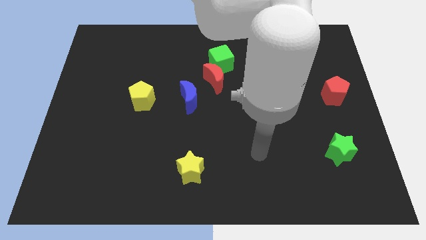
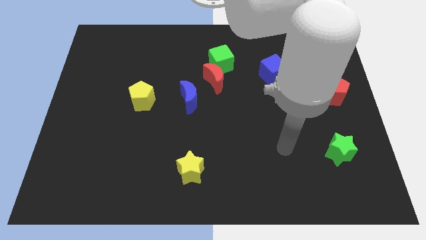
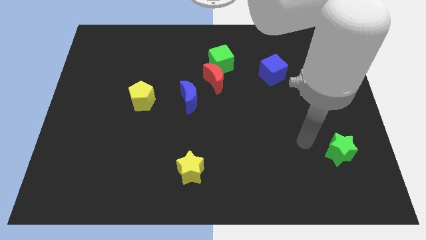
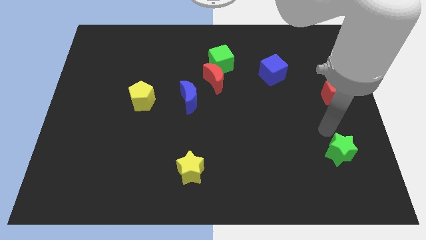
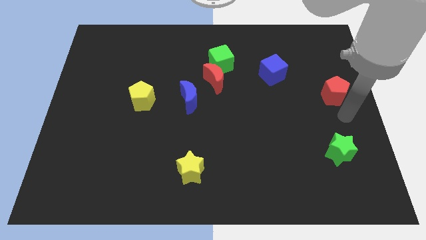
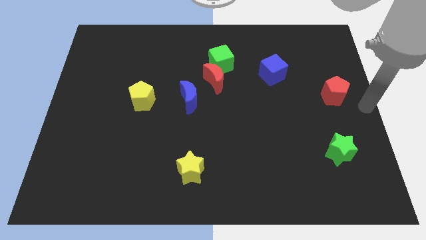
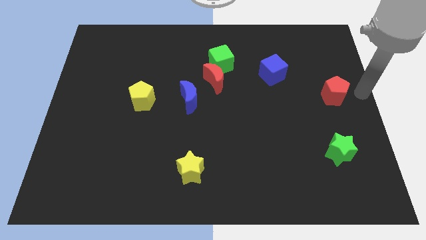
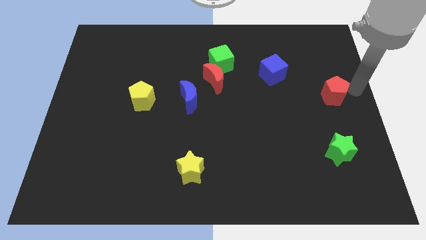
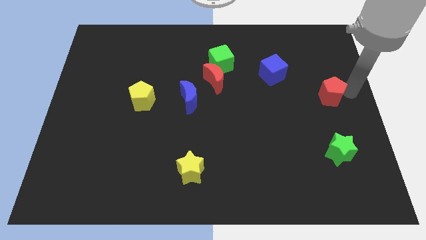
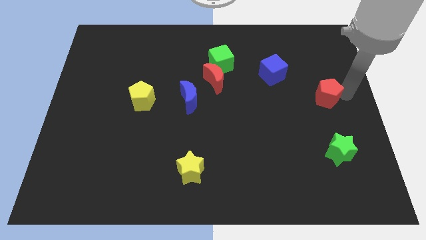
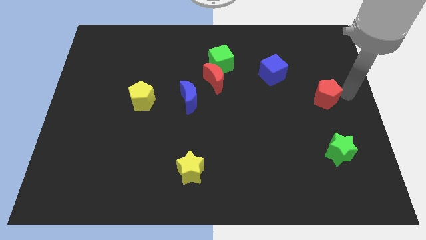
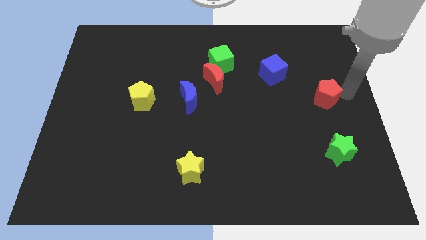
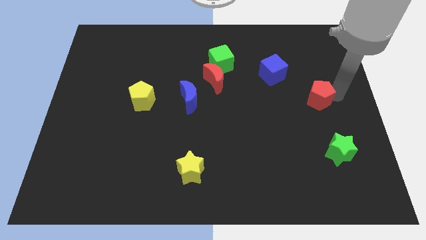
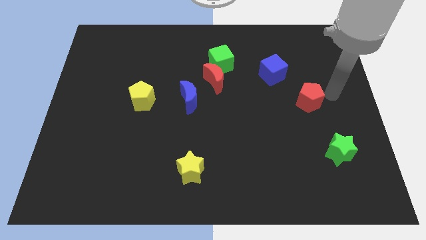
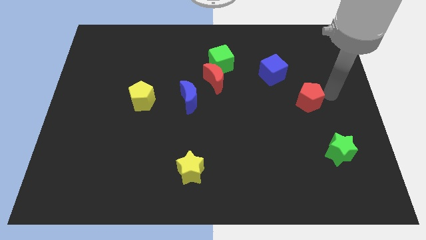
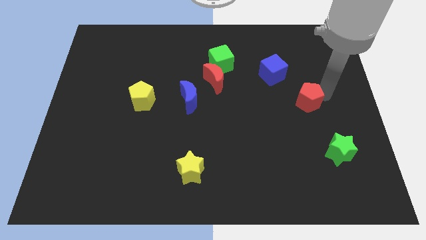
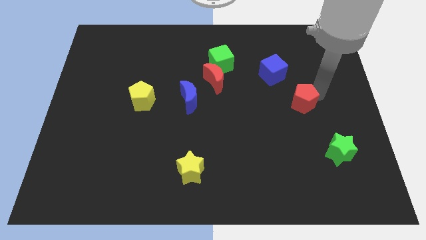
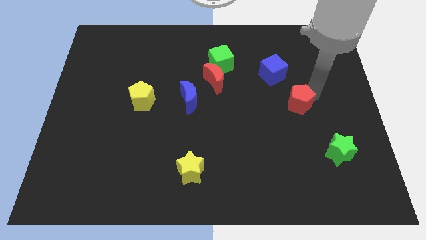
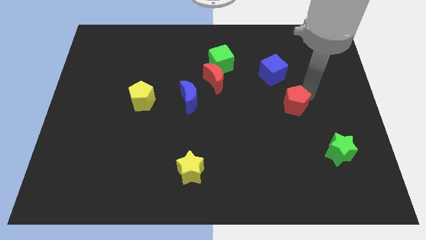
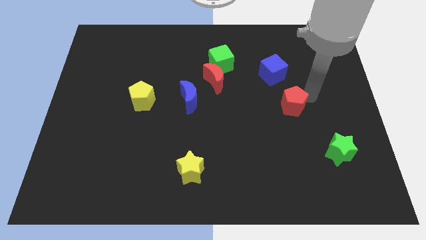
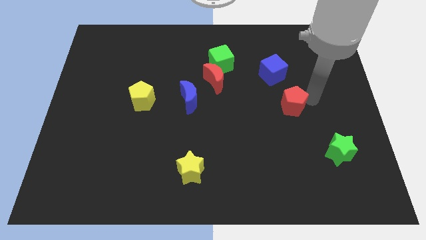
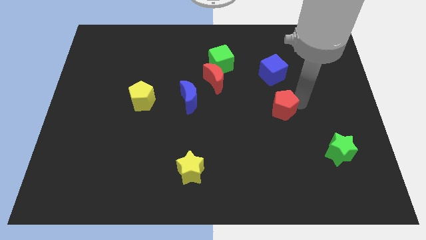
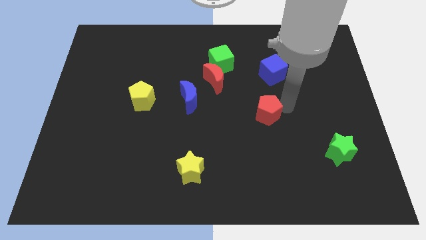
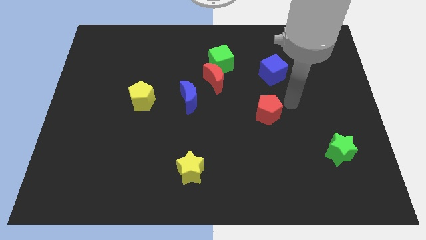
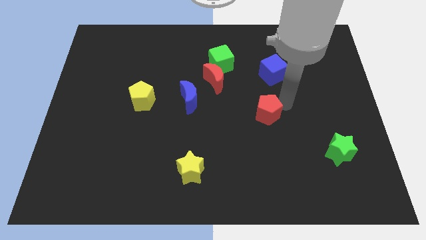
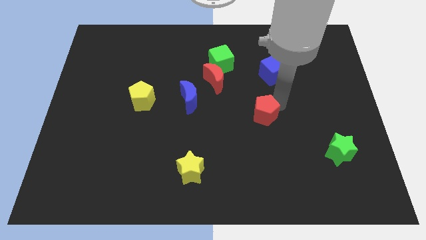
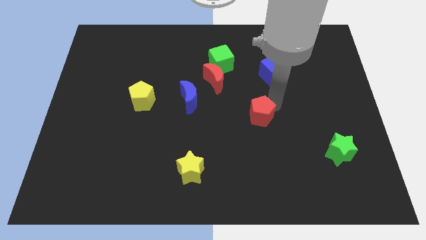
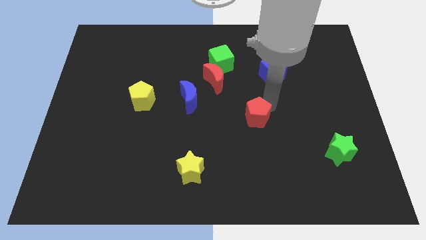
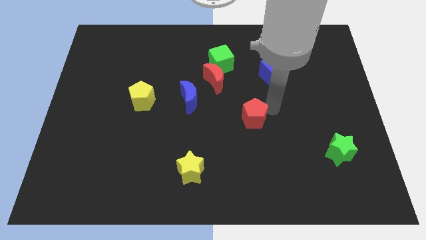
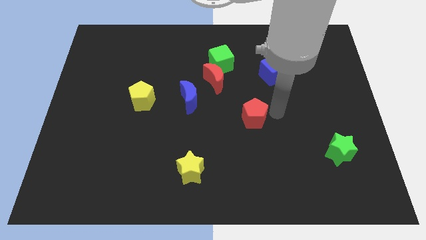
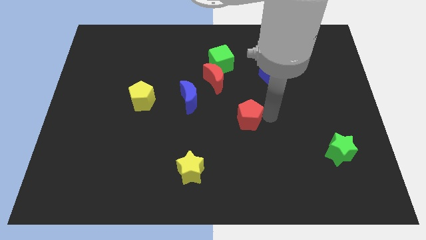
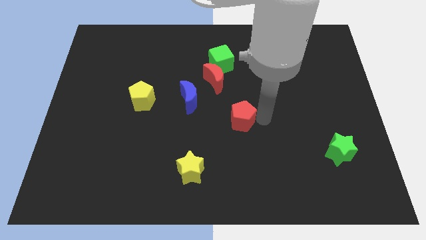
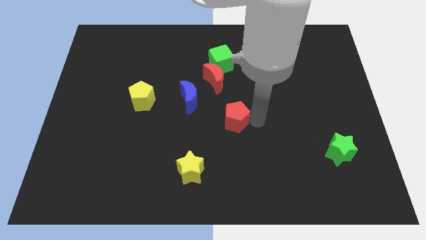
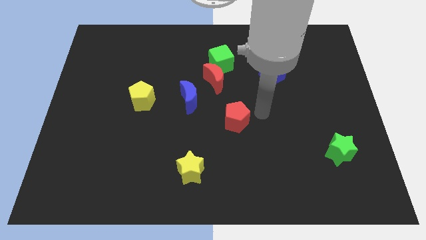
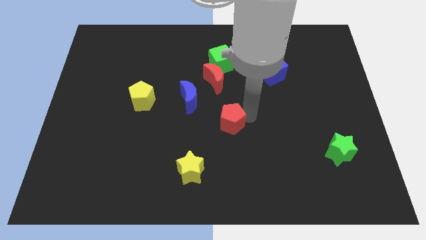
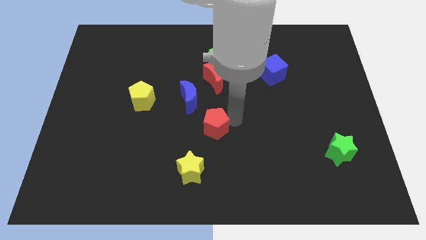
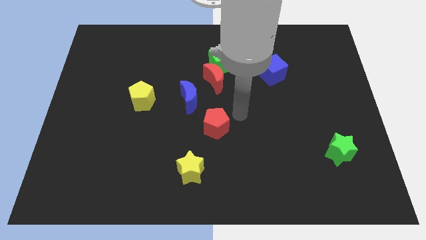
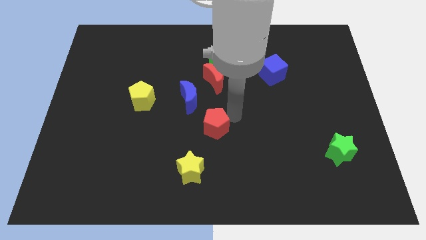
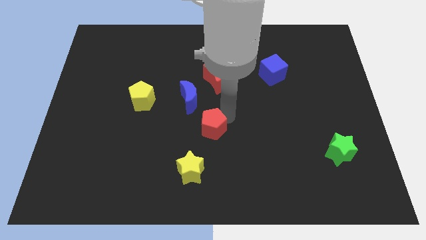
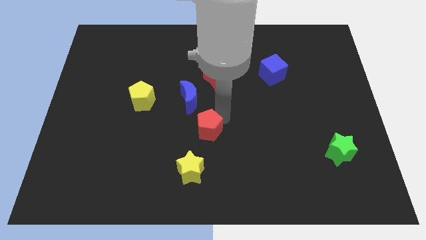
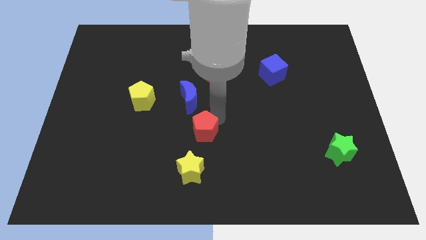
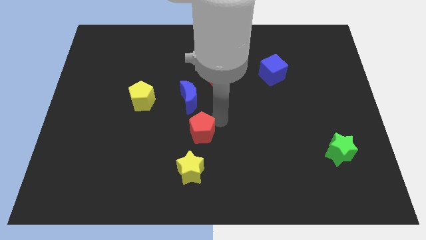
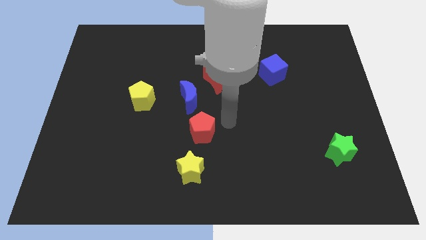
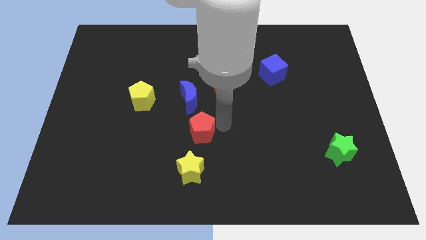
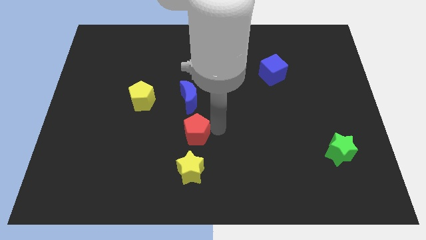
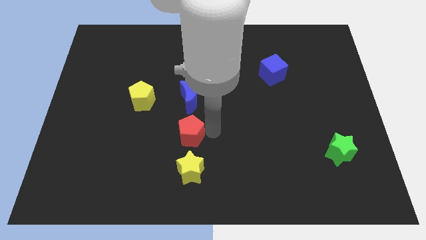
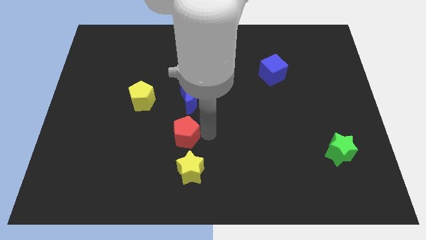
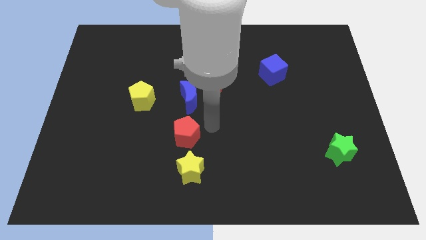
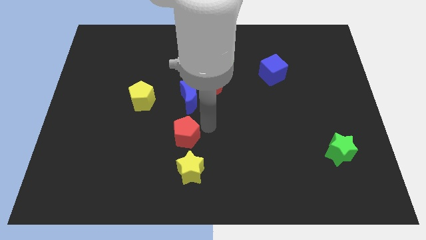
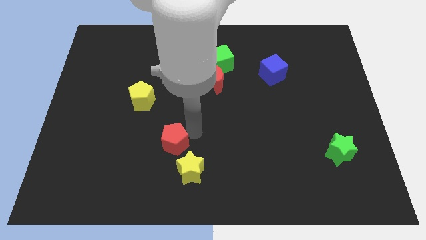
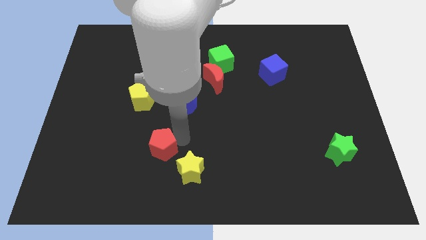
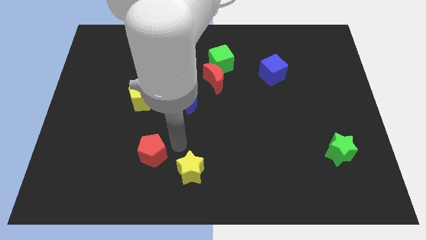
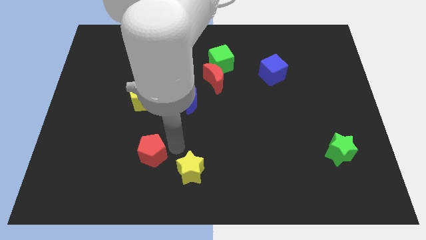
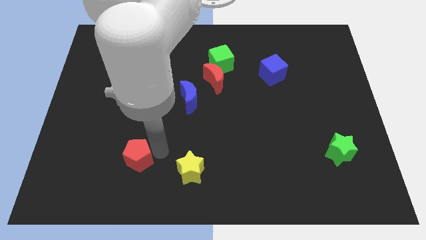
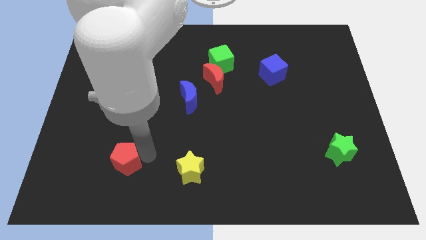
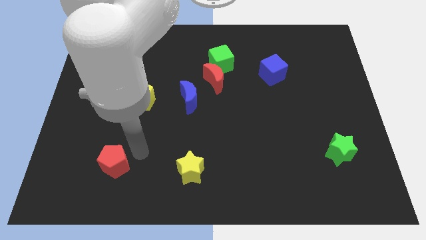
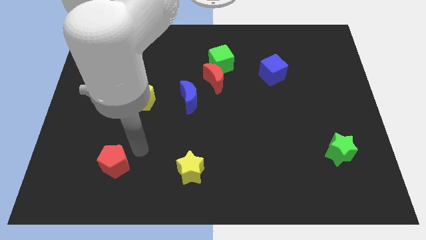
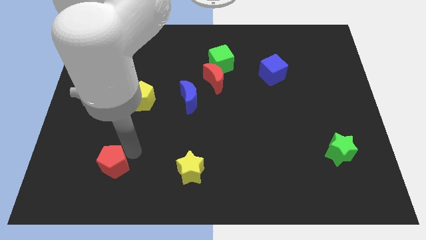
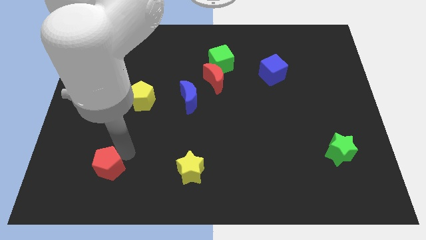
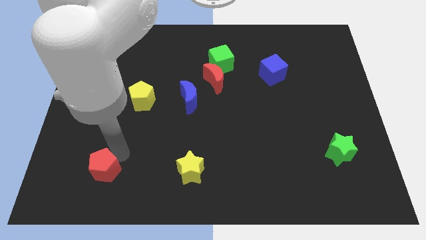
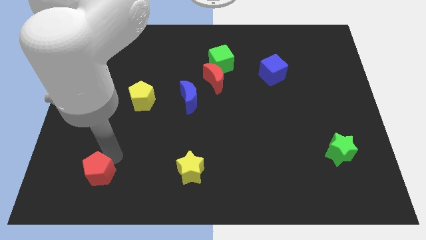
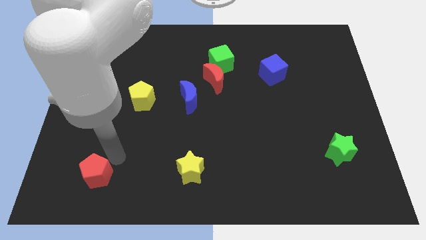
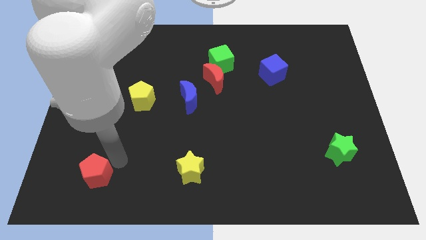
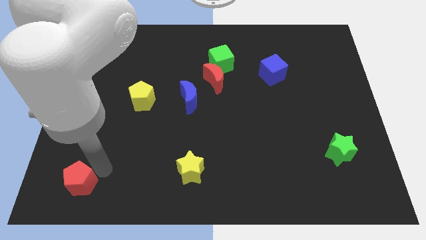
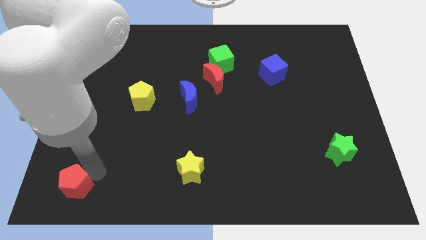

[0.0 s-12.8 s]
push the red pentagon to the lower left corner

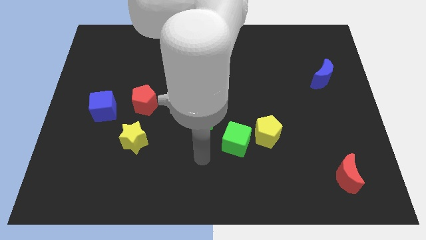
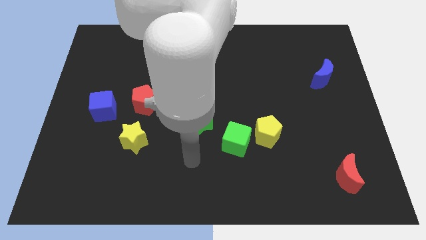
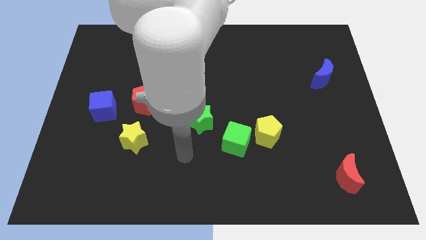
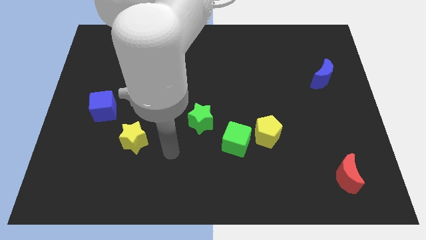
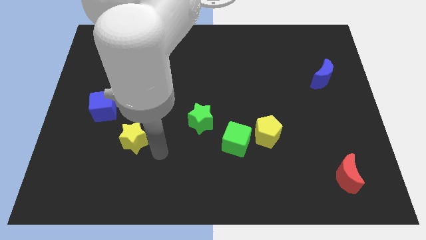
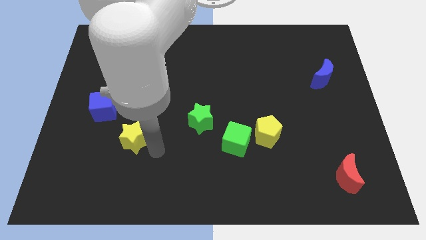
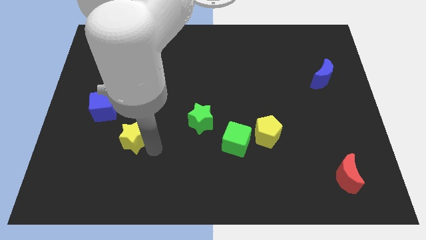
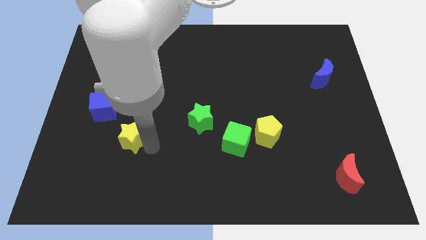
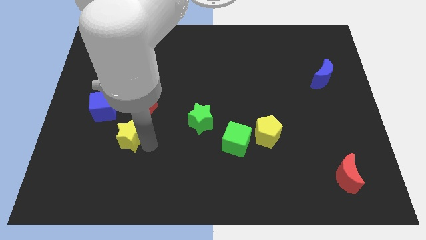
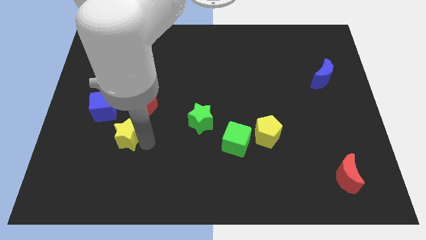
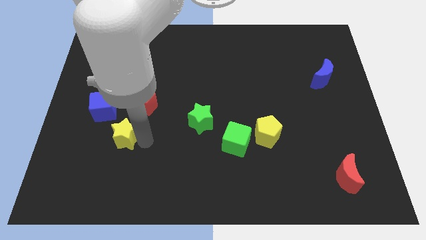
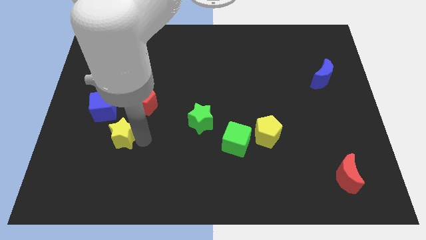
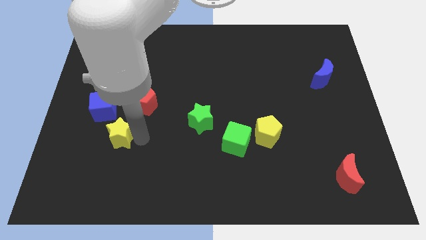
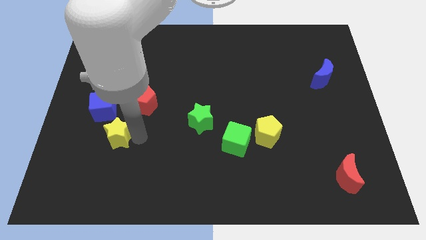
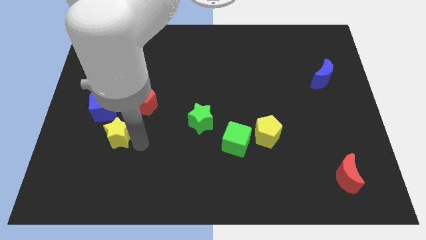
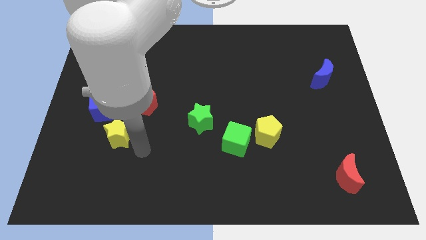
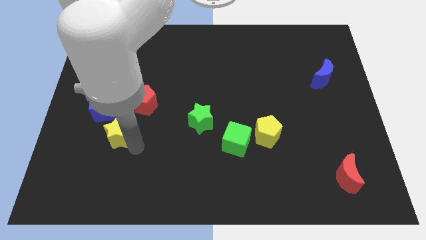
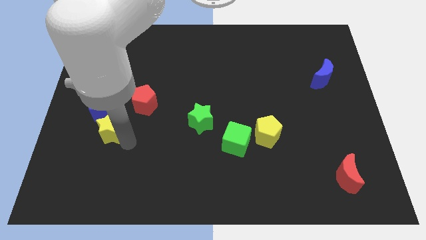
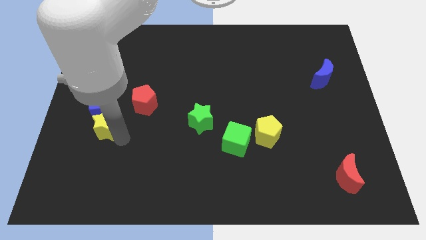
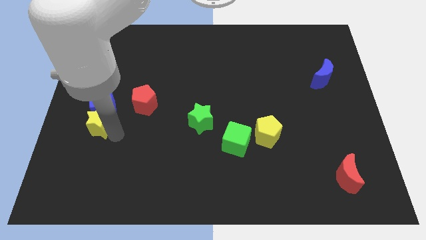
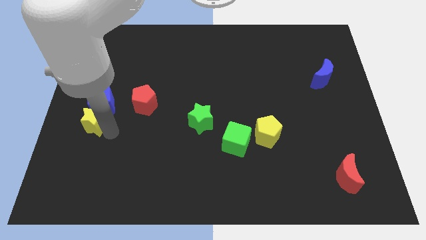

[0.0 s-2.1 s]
push the yellow star to the center left
